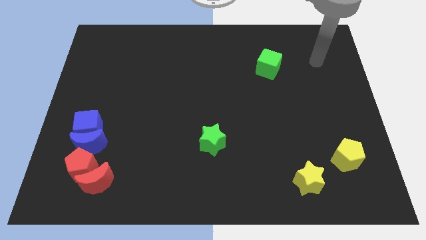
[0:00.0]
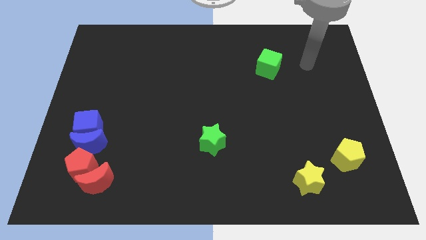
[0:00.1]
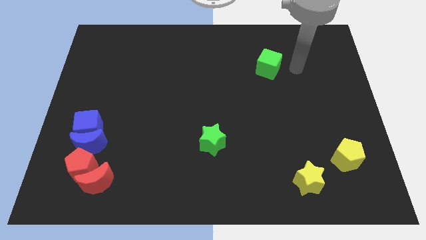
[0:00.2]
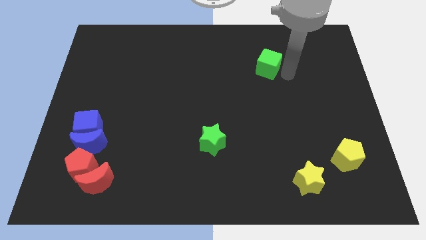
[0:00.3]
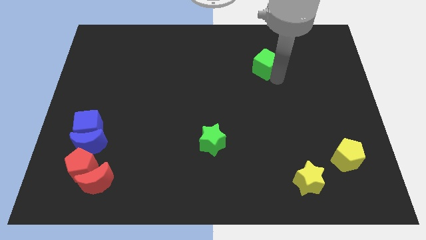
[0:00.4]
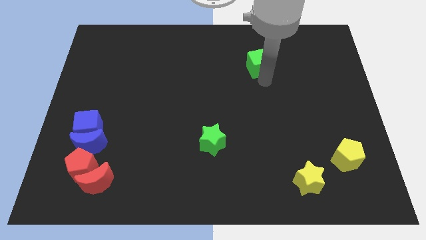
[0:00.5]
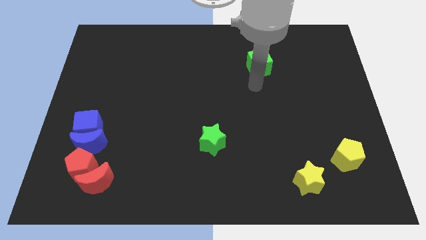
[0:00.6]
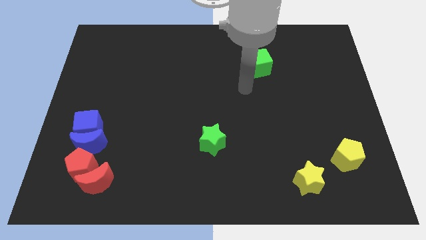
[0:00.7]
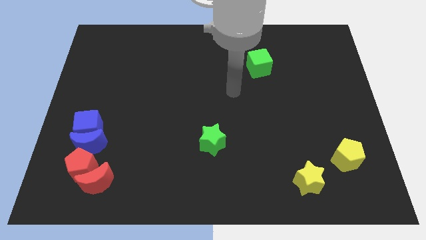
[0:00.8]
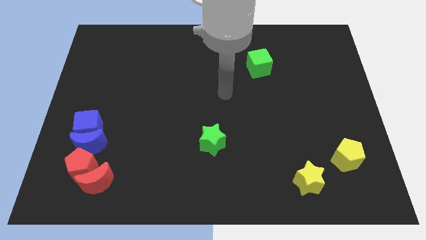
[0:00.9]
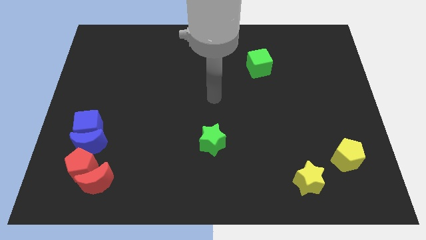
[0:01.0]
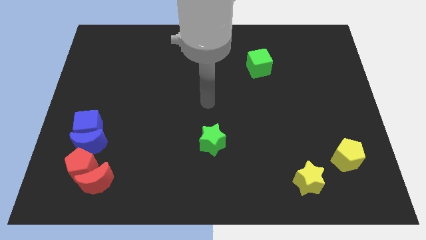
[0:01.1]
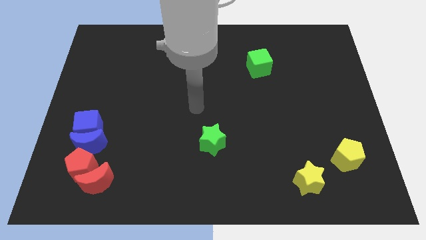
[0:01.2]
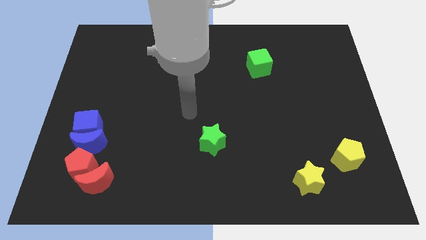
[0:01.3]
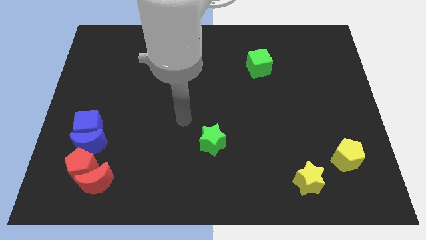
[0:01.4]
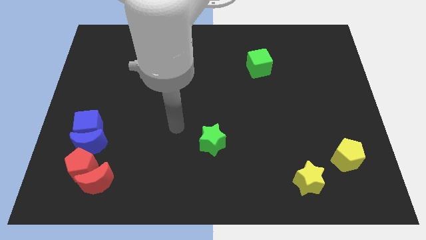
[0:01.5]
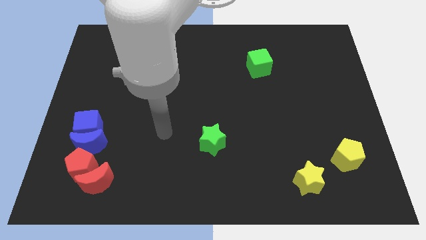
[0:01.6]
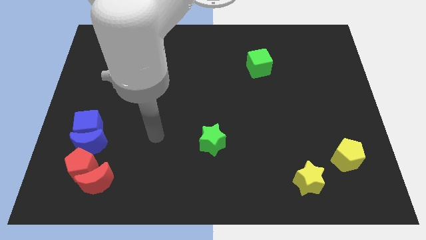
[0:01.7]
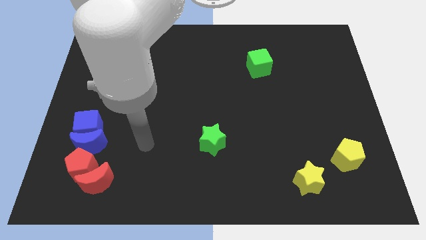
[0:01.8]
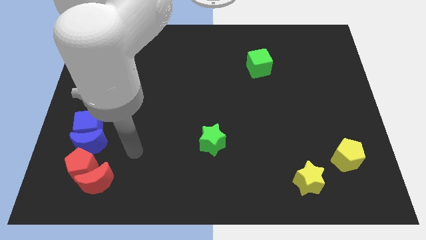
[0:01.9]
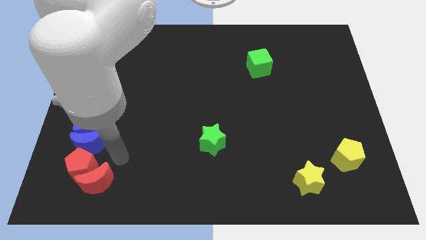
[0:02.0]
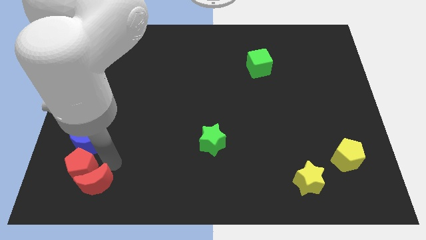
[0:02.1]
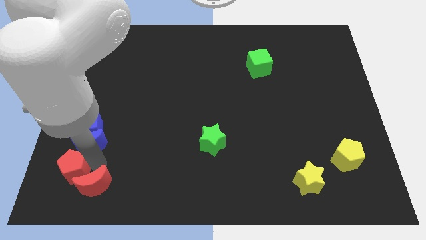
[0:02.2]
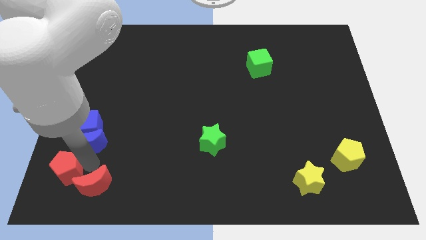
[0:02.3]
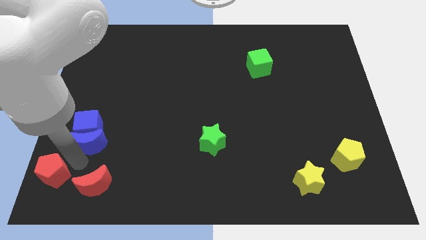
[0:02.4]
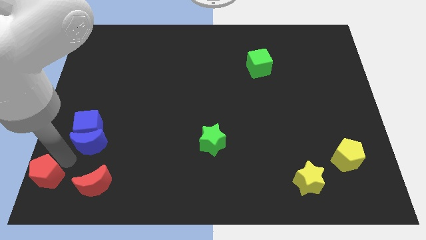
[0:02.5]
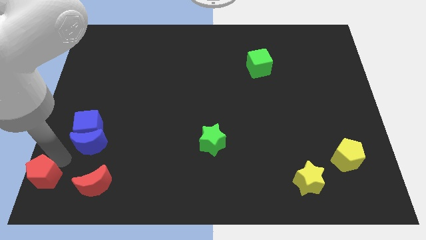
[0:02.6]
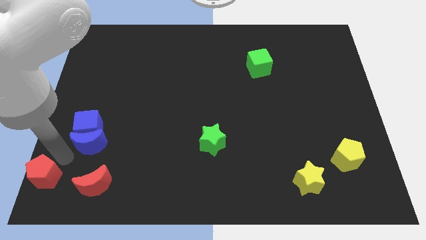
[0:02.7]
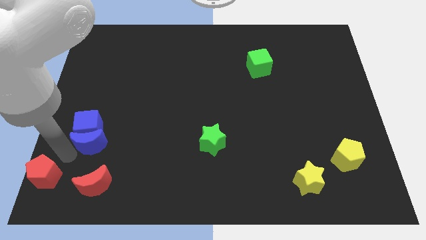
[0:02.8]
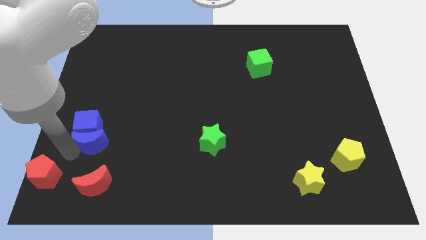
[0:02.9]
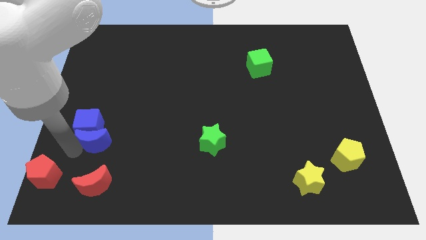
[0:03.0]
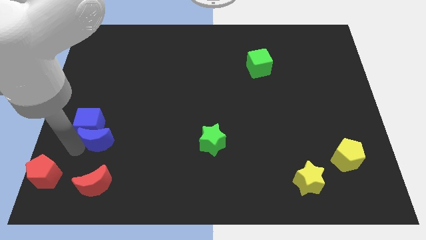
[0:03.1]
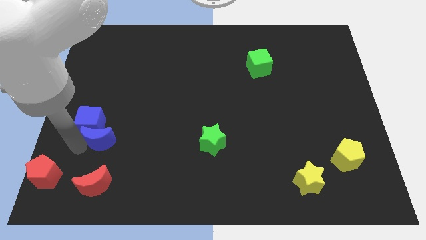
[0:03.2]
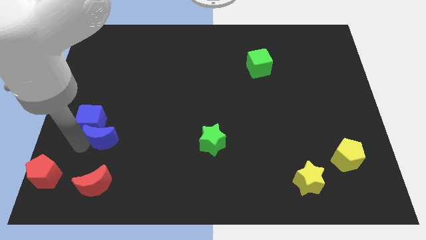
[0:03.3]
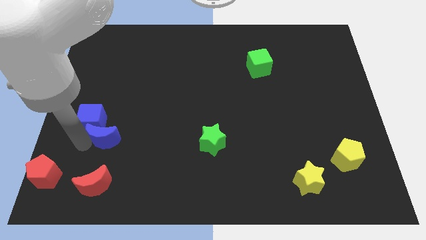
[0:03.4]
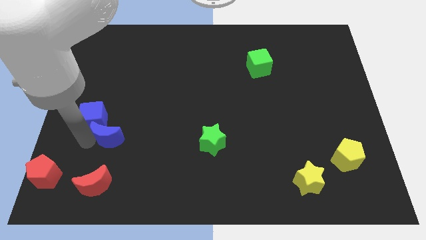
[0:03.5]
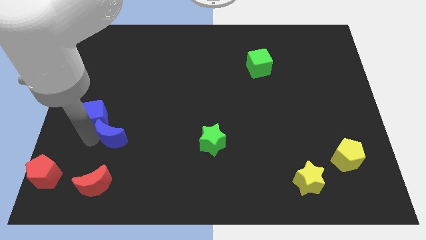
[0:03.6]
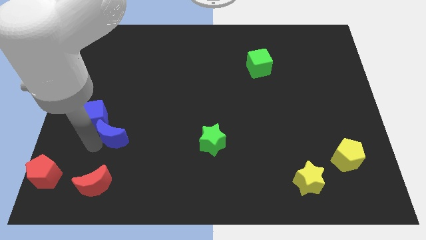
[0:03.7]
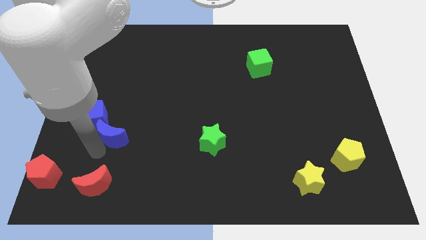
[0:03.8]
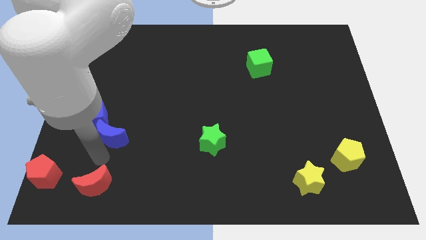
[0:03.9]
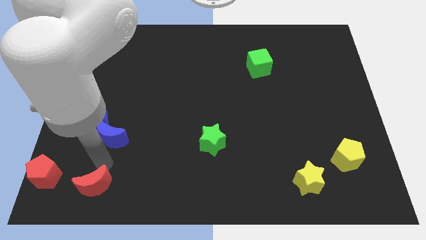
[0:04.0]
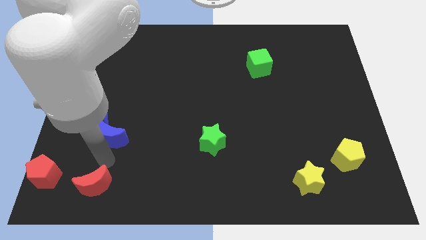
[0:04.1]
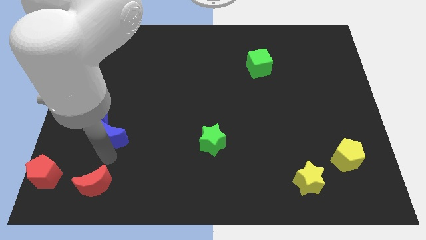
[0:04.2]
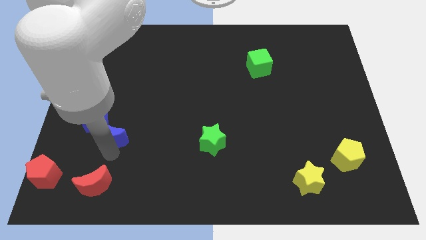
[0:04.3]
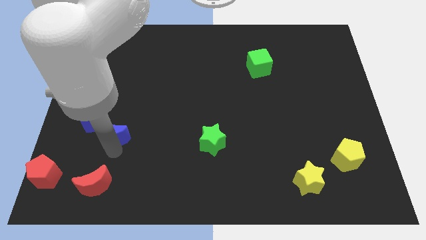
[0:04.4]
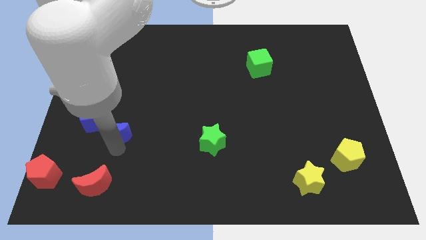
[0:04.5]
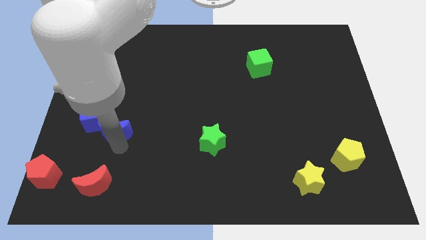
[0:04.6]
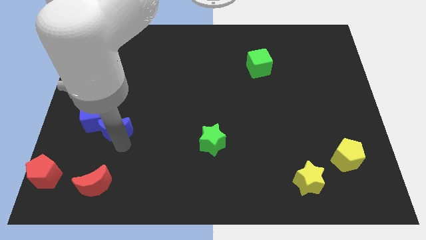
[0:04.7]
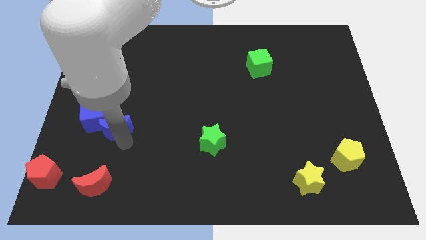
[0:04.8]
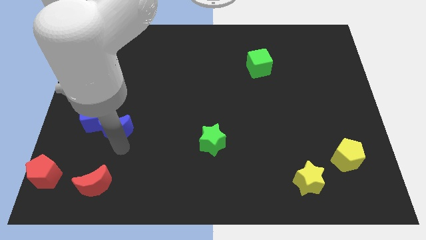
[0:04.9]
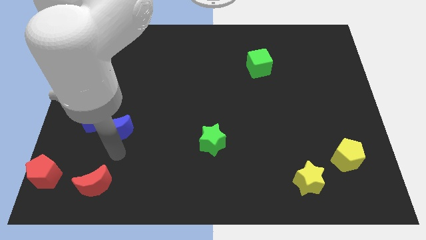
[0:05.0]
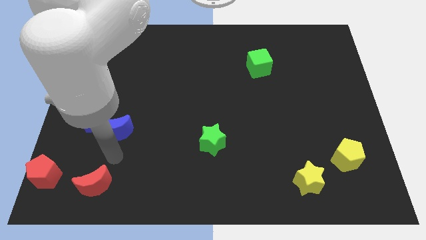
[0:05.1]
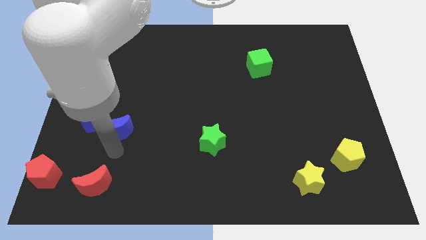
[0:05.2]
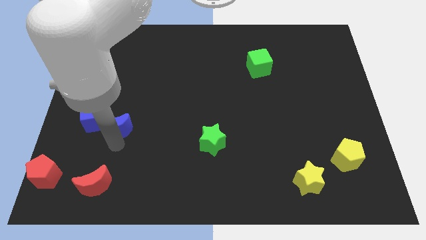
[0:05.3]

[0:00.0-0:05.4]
separate the blue moon from the clump

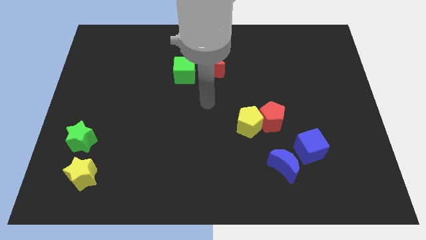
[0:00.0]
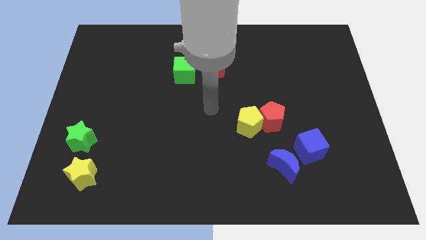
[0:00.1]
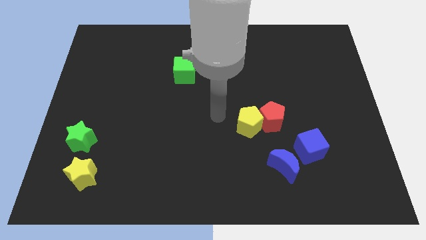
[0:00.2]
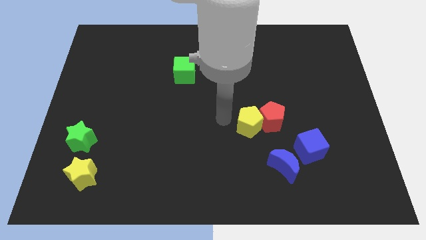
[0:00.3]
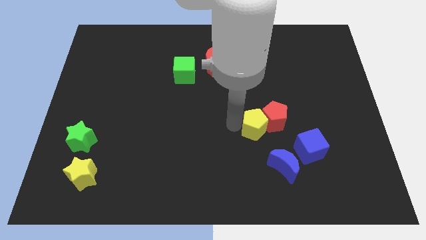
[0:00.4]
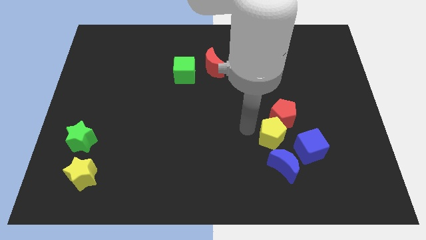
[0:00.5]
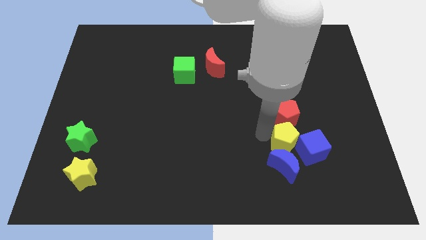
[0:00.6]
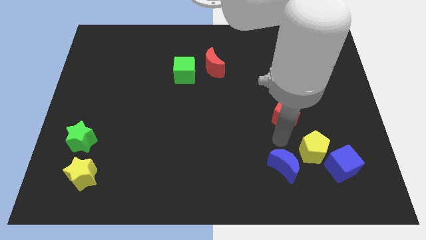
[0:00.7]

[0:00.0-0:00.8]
separate the red pentagon from the yellow pentagon

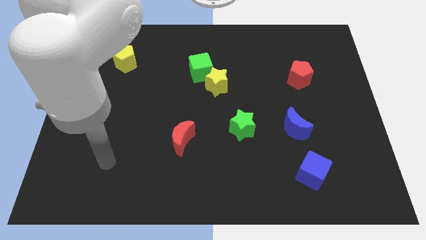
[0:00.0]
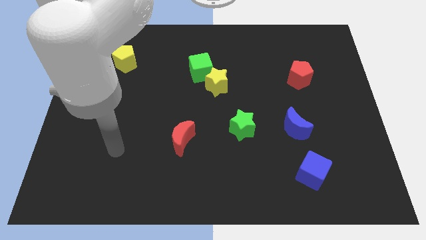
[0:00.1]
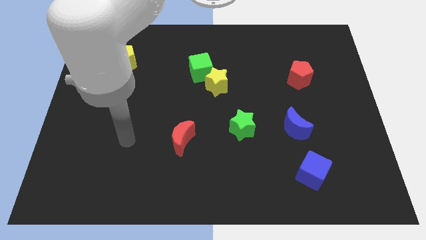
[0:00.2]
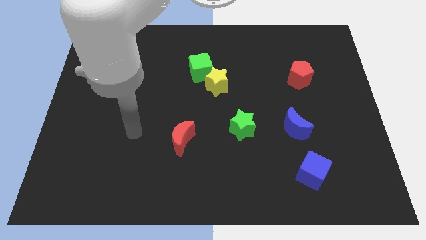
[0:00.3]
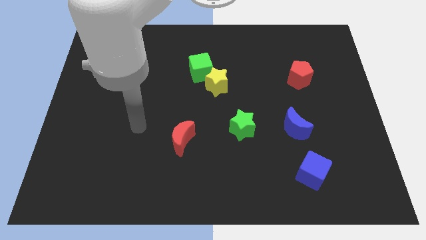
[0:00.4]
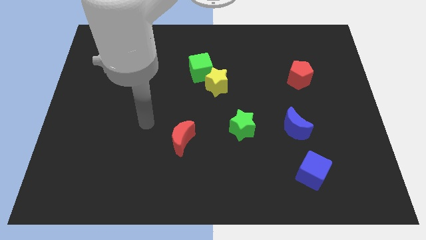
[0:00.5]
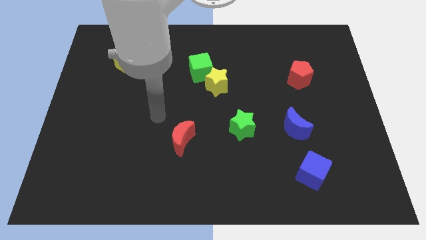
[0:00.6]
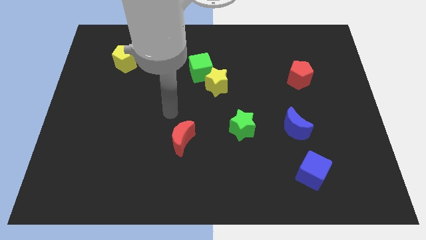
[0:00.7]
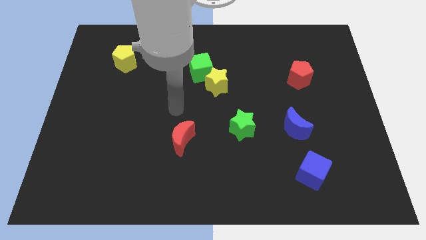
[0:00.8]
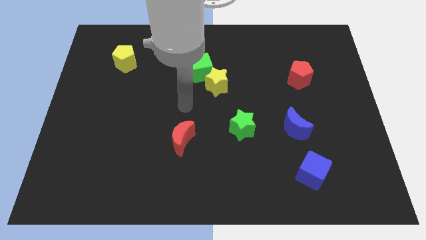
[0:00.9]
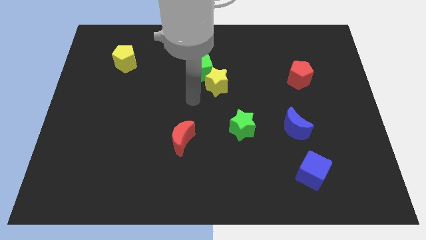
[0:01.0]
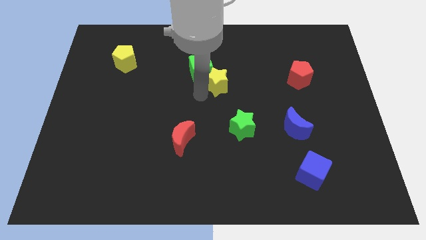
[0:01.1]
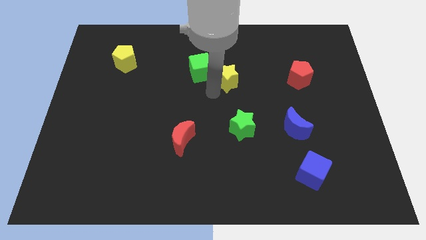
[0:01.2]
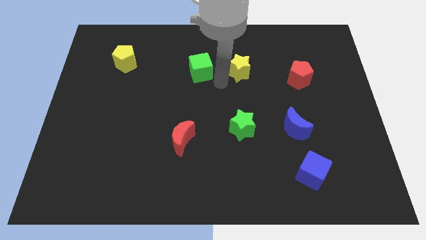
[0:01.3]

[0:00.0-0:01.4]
pull the green cube apart from the yellow star

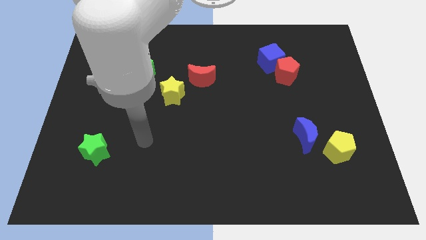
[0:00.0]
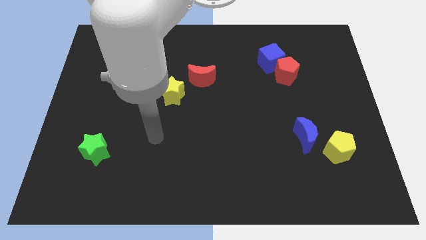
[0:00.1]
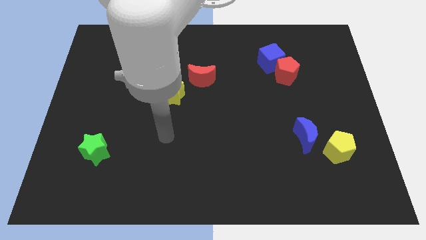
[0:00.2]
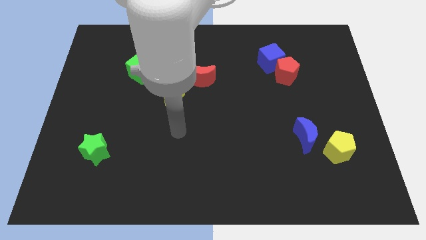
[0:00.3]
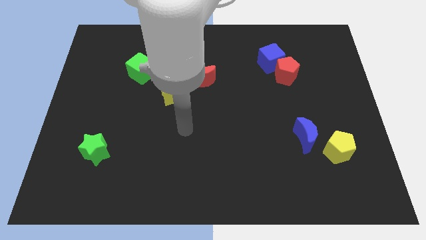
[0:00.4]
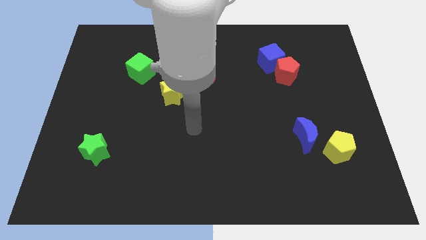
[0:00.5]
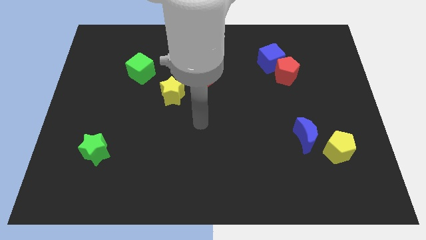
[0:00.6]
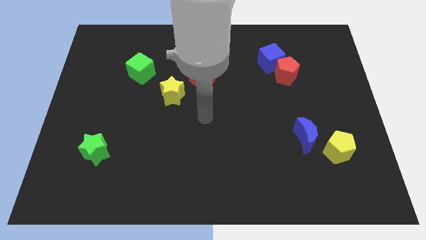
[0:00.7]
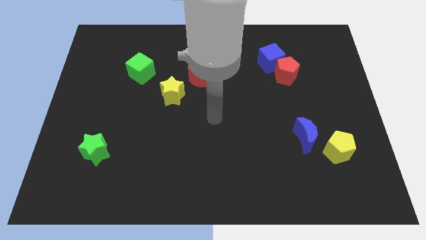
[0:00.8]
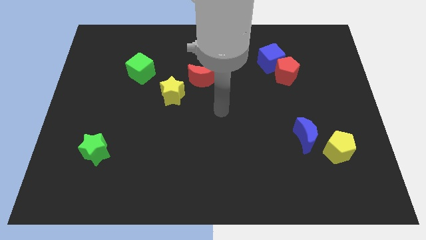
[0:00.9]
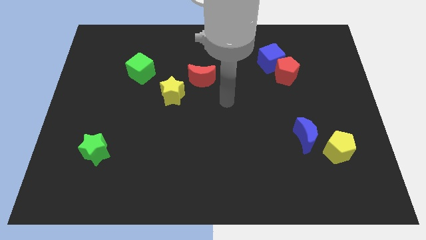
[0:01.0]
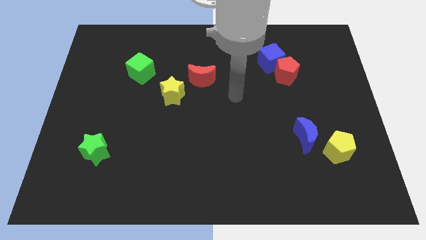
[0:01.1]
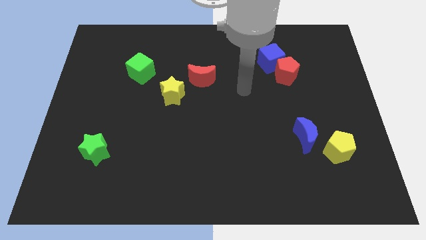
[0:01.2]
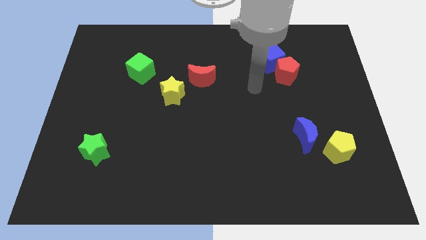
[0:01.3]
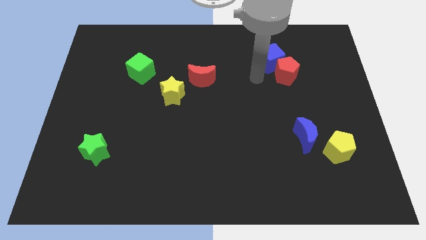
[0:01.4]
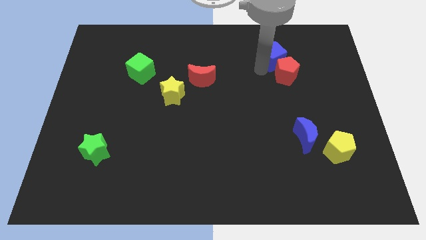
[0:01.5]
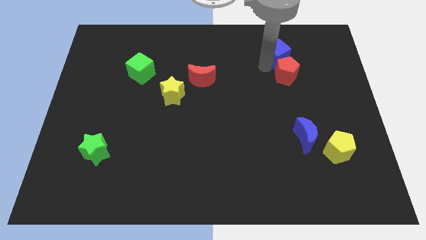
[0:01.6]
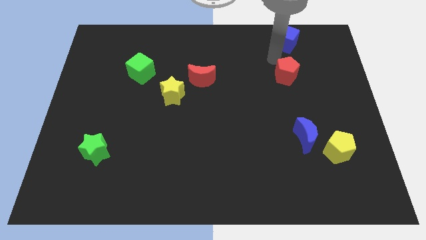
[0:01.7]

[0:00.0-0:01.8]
pull the red pentagon apart from the blue cube
